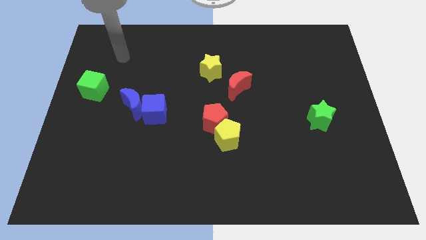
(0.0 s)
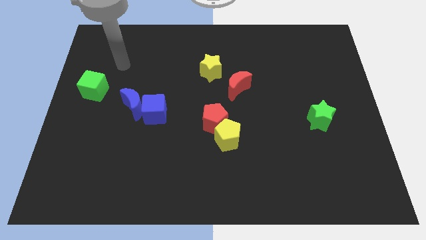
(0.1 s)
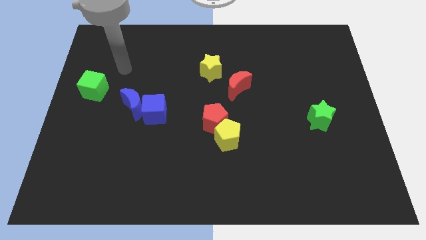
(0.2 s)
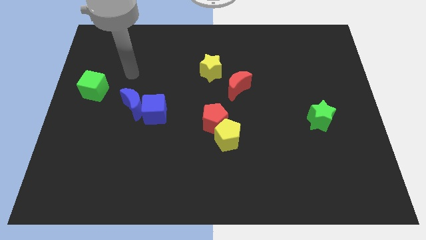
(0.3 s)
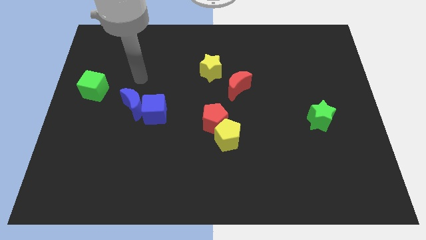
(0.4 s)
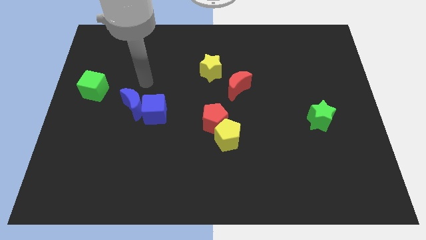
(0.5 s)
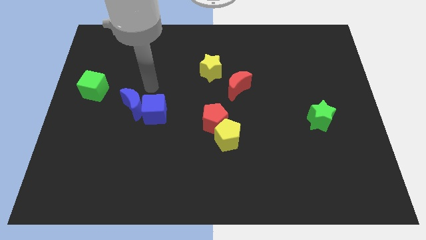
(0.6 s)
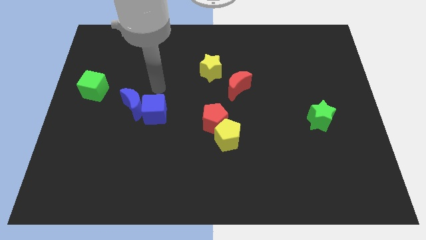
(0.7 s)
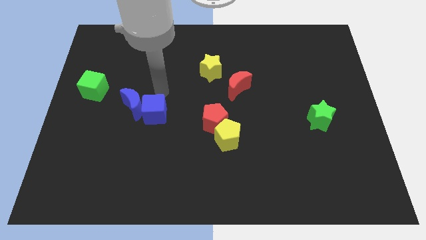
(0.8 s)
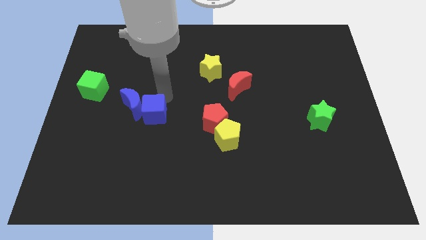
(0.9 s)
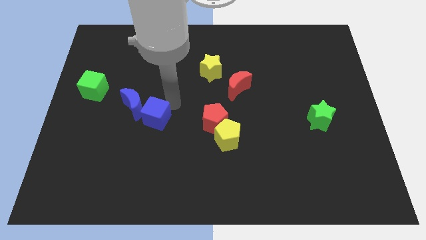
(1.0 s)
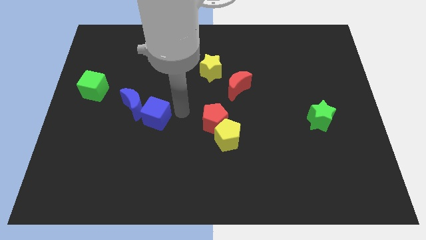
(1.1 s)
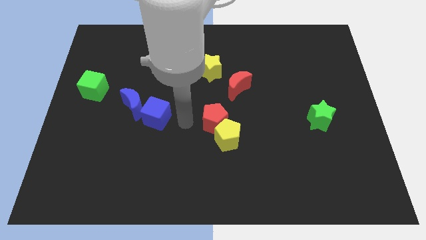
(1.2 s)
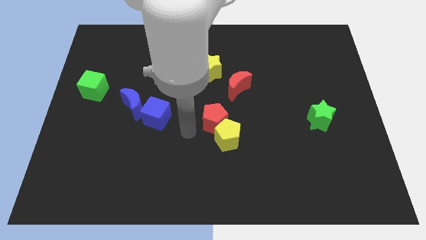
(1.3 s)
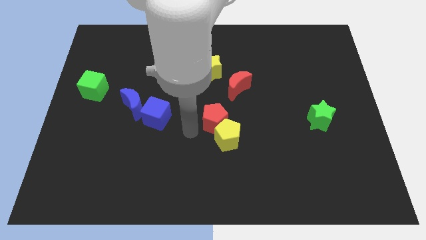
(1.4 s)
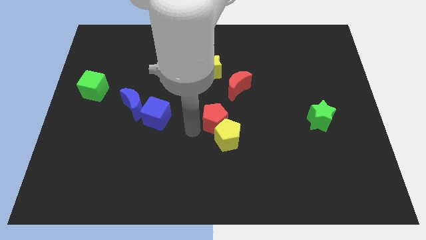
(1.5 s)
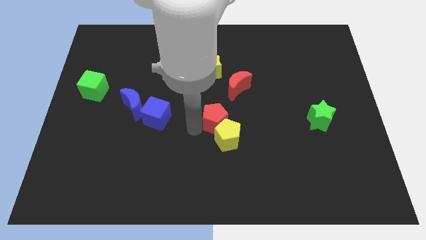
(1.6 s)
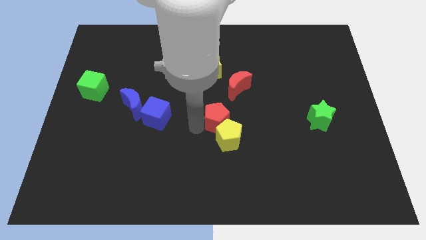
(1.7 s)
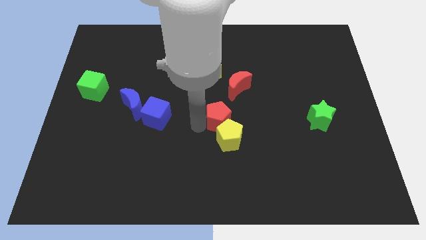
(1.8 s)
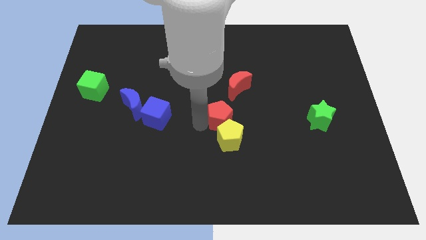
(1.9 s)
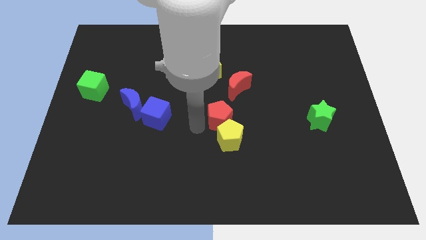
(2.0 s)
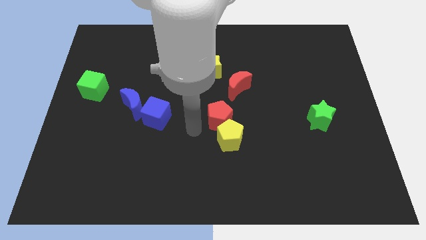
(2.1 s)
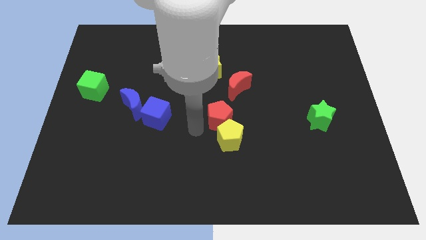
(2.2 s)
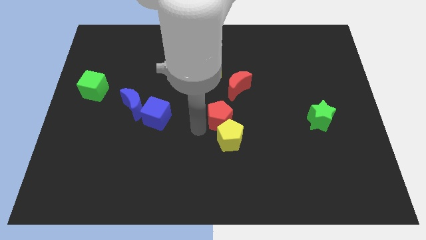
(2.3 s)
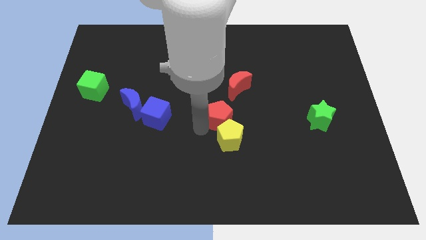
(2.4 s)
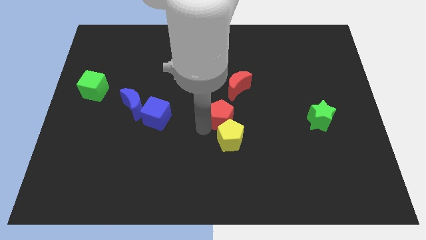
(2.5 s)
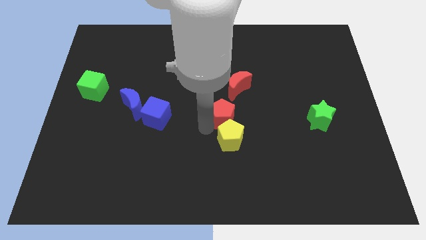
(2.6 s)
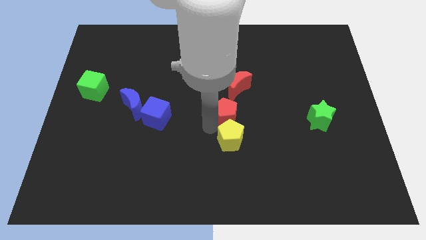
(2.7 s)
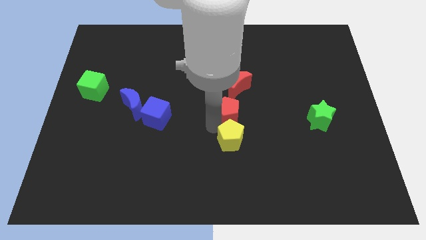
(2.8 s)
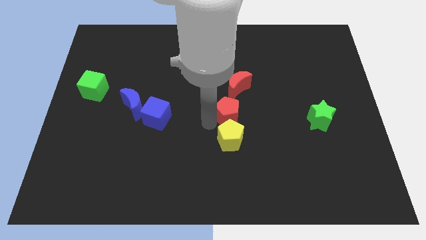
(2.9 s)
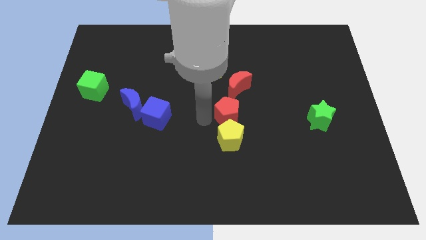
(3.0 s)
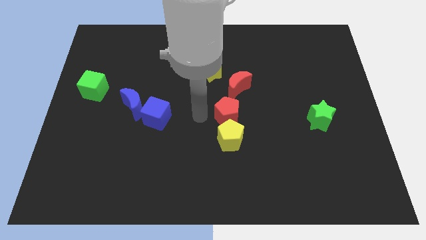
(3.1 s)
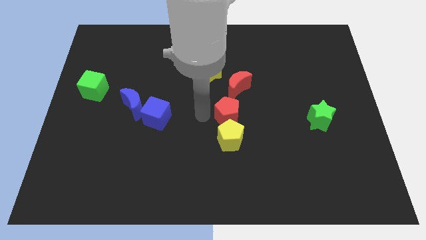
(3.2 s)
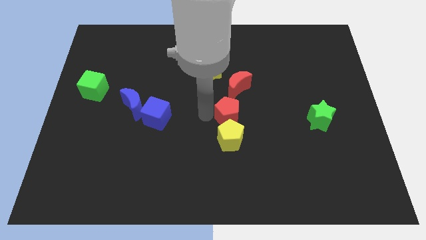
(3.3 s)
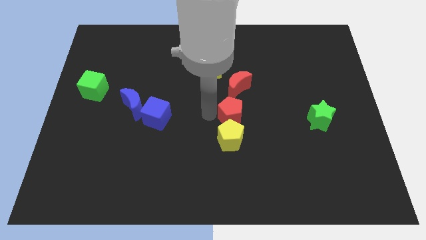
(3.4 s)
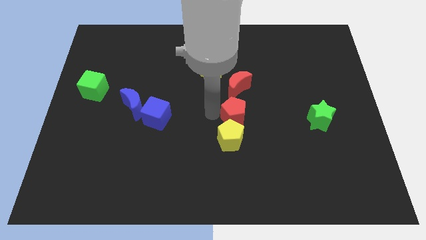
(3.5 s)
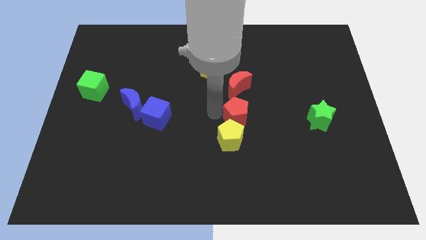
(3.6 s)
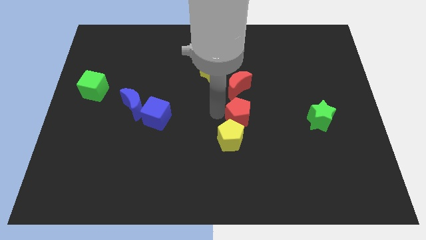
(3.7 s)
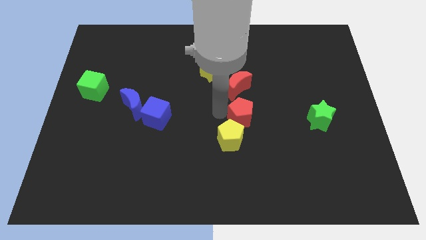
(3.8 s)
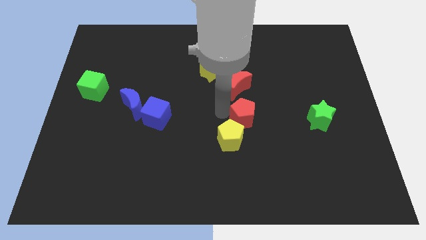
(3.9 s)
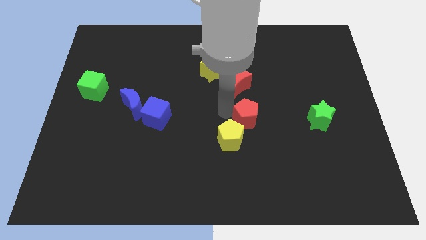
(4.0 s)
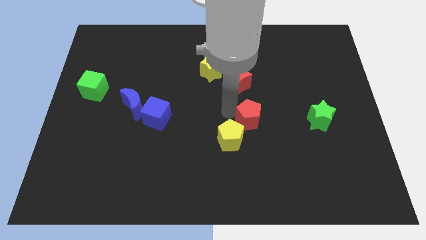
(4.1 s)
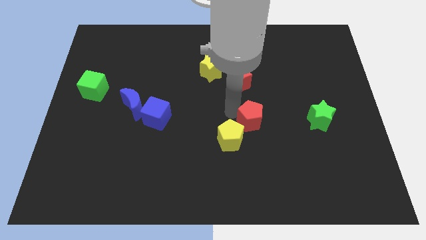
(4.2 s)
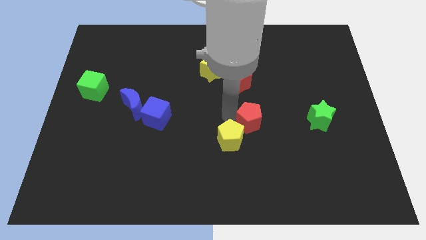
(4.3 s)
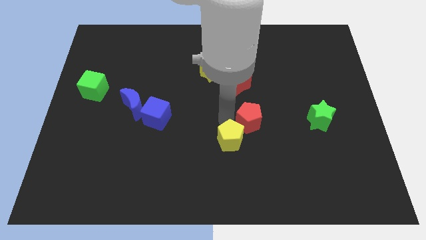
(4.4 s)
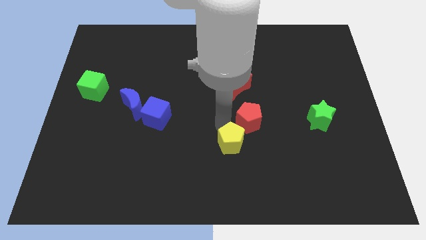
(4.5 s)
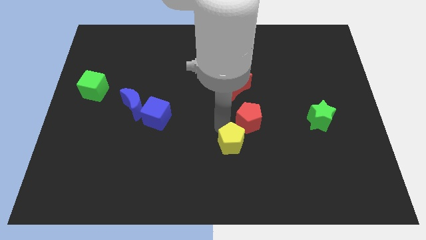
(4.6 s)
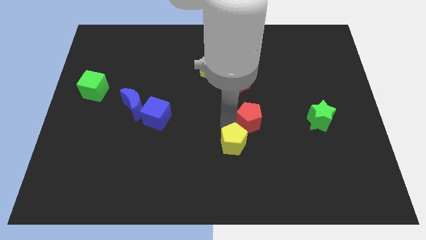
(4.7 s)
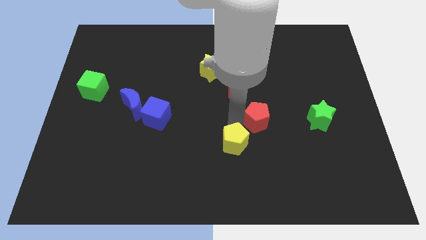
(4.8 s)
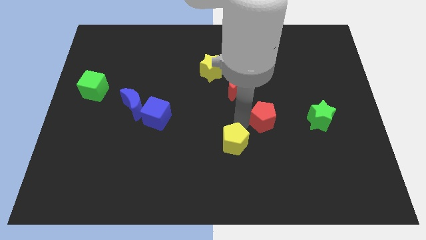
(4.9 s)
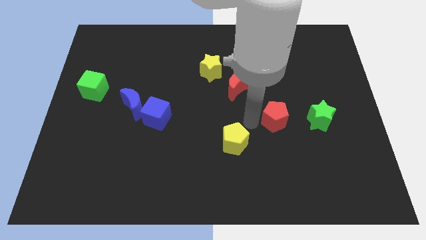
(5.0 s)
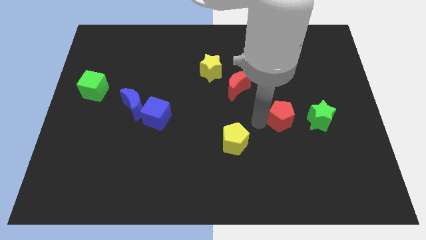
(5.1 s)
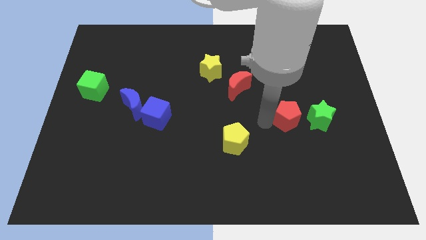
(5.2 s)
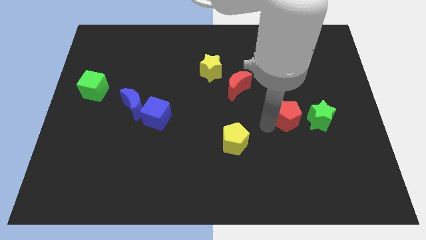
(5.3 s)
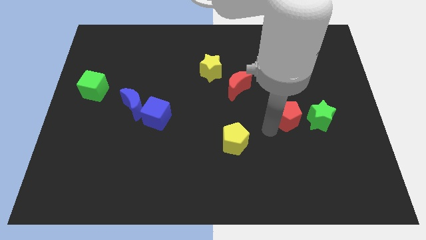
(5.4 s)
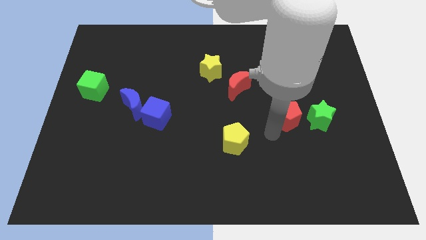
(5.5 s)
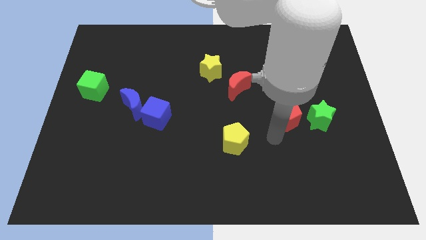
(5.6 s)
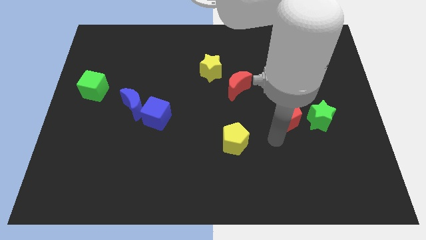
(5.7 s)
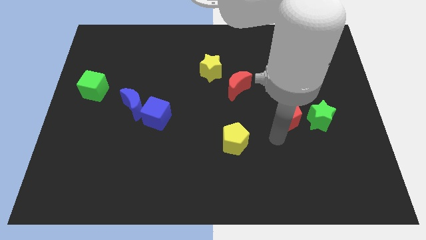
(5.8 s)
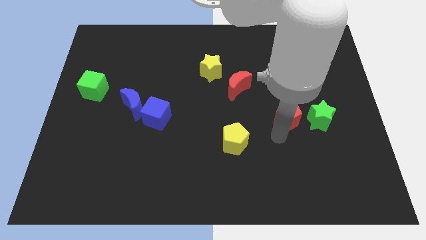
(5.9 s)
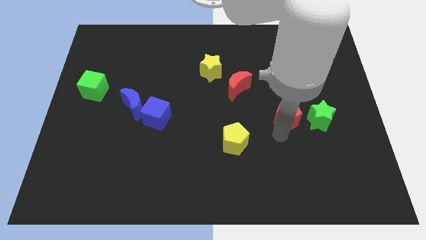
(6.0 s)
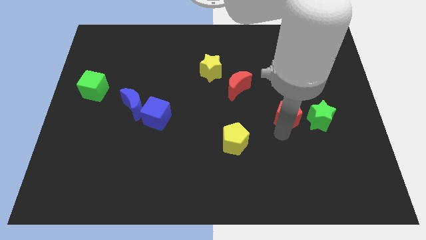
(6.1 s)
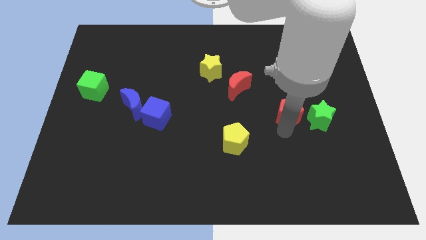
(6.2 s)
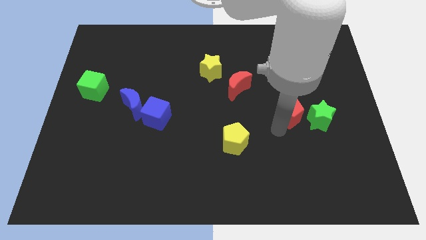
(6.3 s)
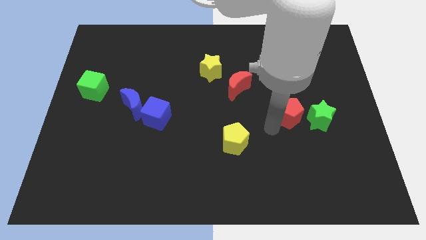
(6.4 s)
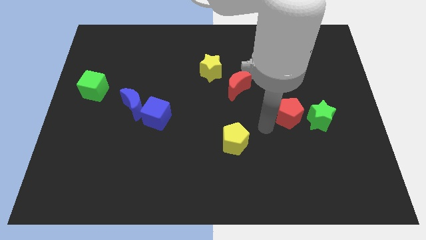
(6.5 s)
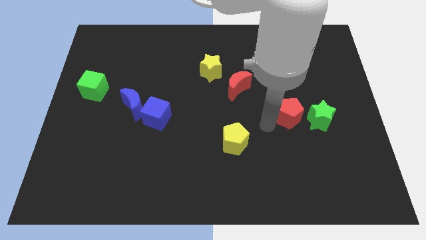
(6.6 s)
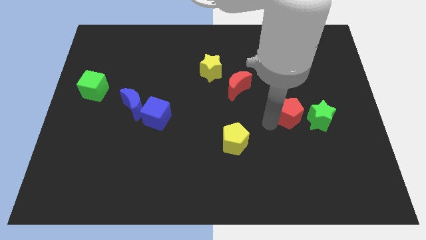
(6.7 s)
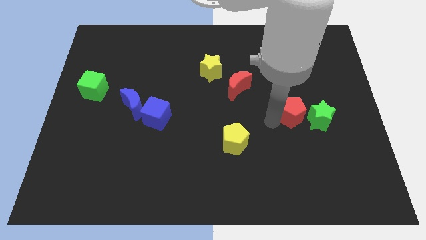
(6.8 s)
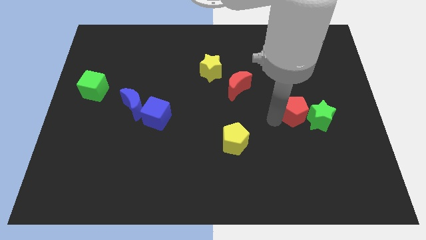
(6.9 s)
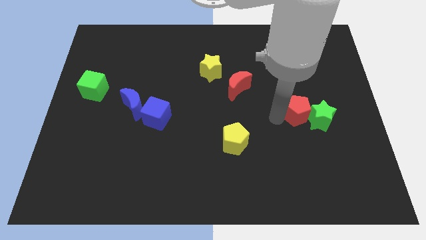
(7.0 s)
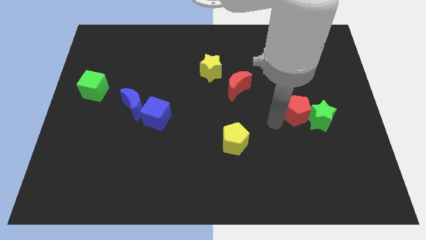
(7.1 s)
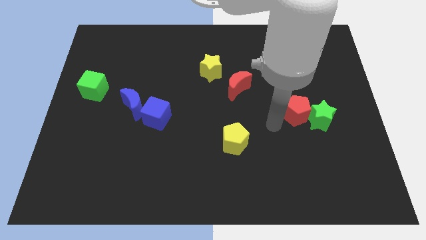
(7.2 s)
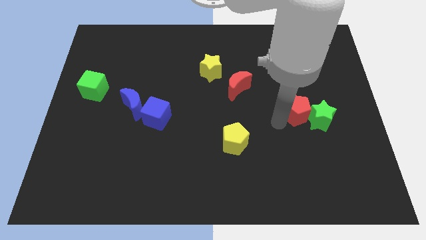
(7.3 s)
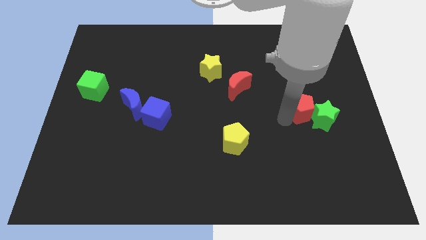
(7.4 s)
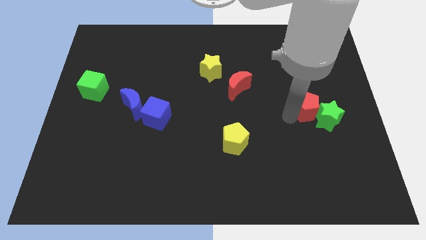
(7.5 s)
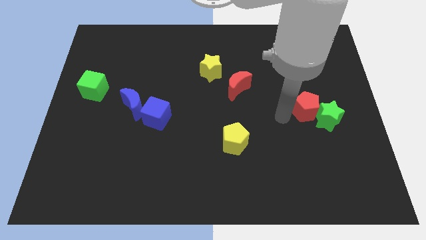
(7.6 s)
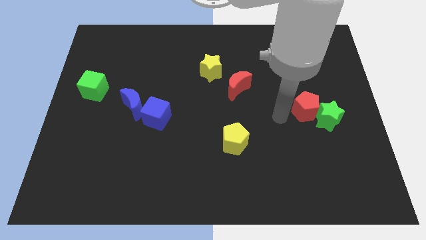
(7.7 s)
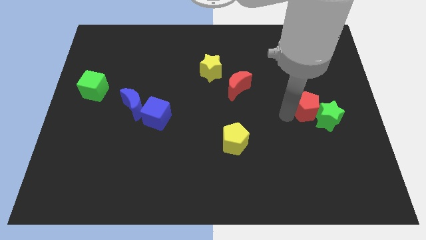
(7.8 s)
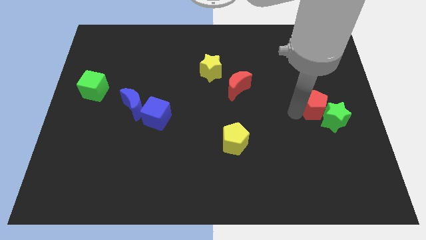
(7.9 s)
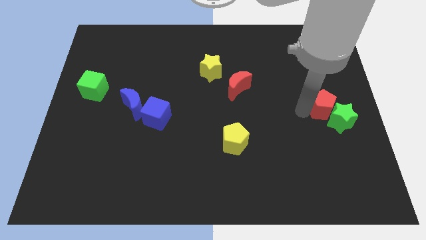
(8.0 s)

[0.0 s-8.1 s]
put the red pentagon to the right side
